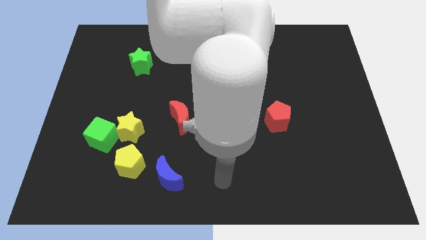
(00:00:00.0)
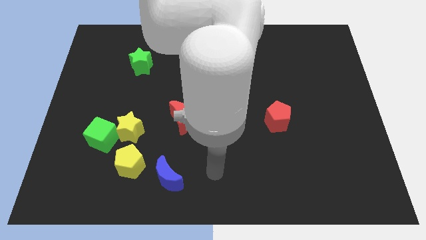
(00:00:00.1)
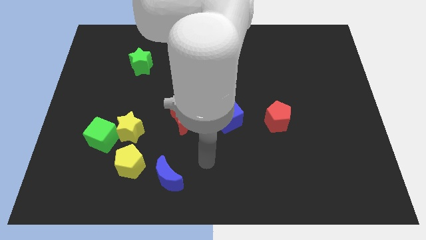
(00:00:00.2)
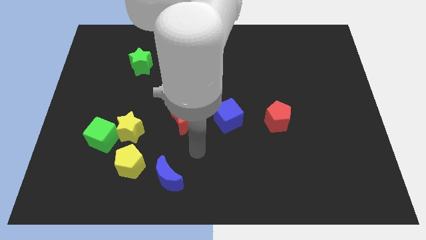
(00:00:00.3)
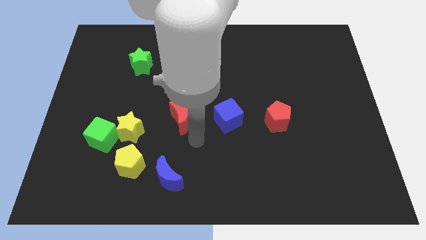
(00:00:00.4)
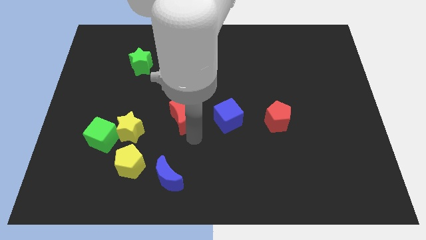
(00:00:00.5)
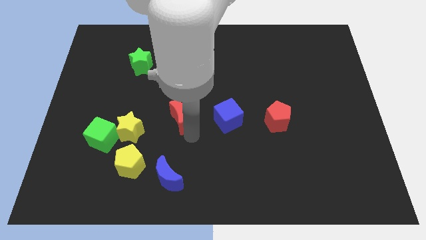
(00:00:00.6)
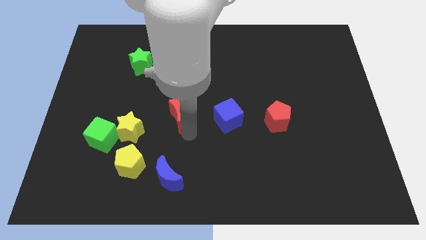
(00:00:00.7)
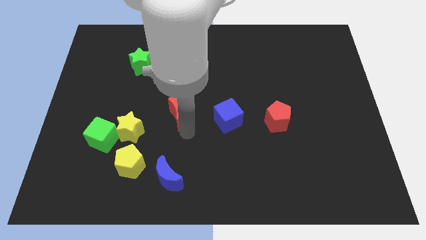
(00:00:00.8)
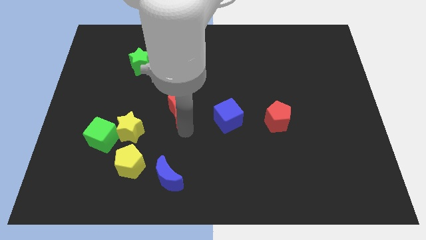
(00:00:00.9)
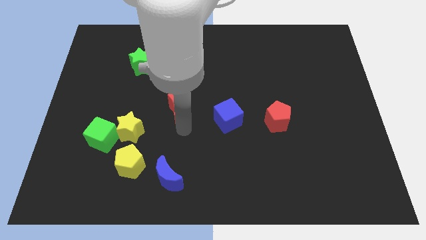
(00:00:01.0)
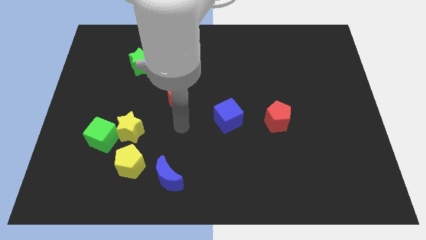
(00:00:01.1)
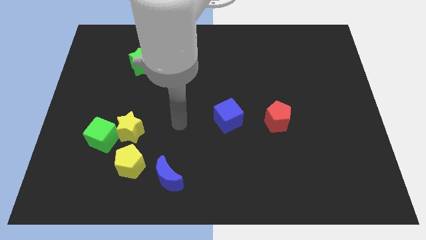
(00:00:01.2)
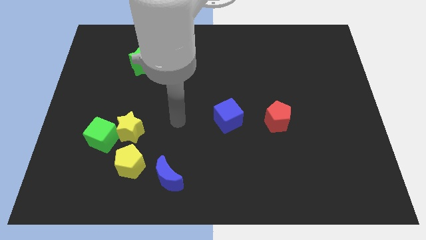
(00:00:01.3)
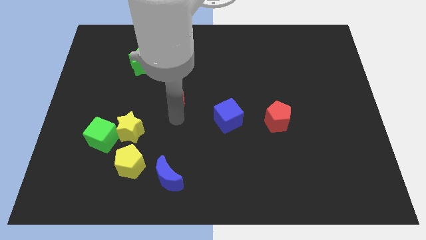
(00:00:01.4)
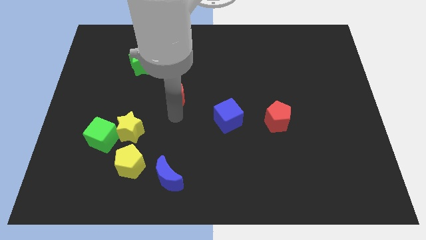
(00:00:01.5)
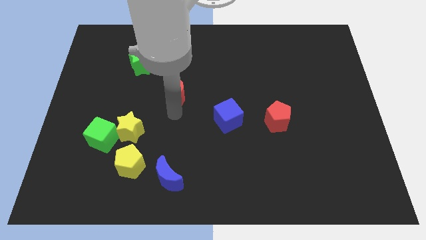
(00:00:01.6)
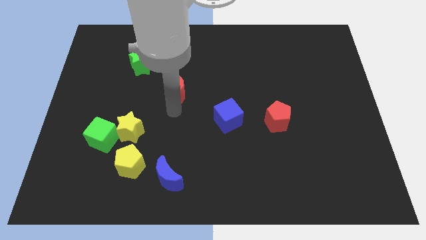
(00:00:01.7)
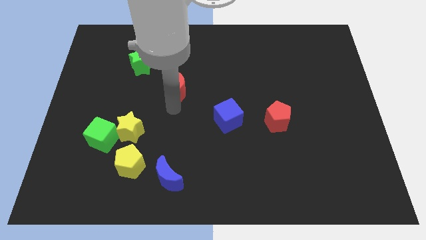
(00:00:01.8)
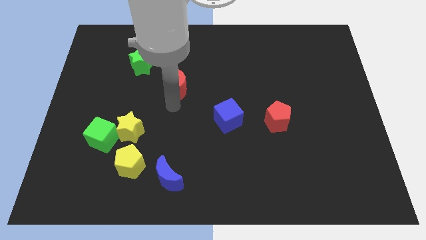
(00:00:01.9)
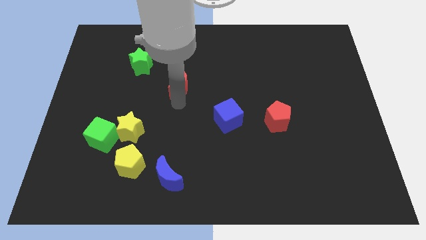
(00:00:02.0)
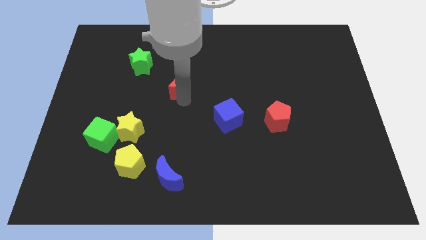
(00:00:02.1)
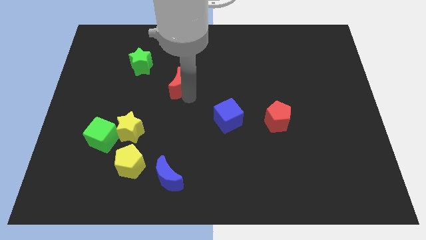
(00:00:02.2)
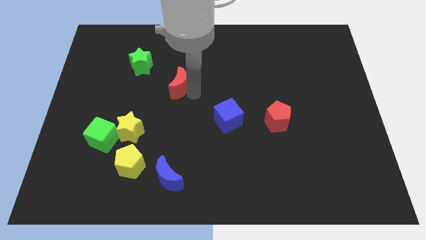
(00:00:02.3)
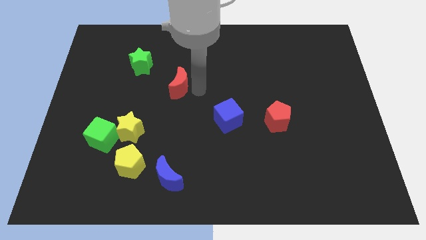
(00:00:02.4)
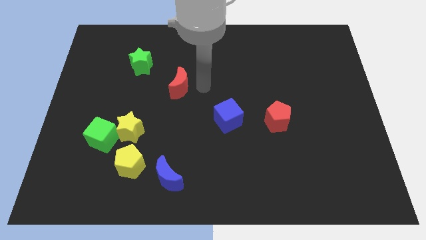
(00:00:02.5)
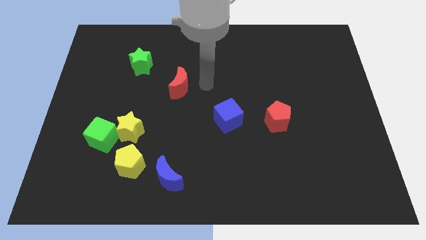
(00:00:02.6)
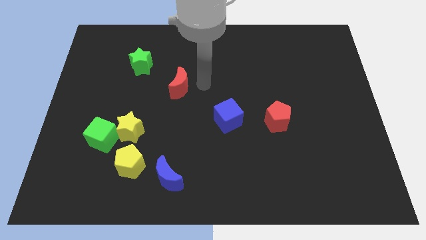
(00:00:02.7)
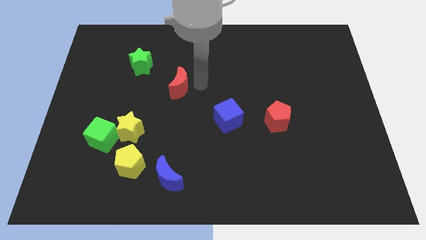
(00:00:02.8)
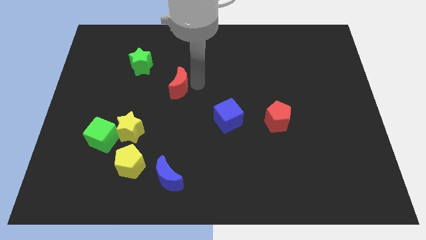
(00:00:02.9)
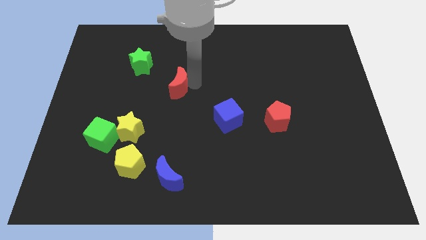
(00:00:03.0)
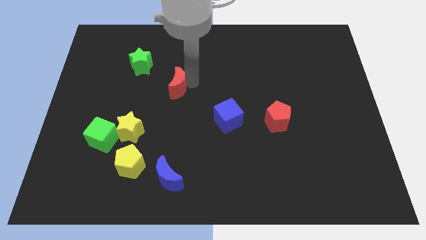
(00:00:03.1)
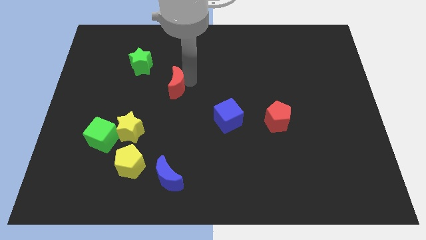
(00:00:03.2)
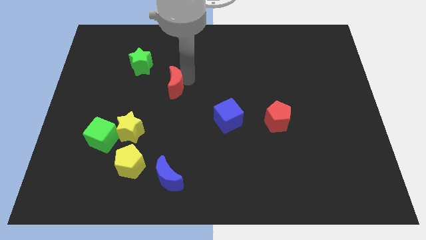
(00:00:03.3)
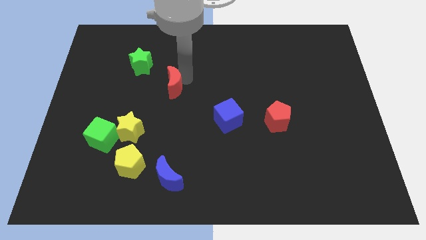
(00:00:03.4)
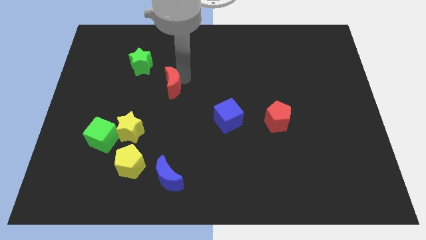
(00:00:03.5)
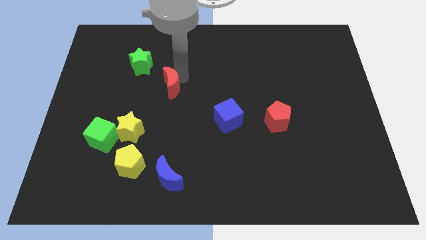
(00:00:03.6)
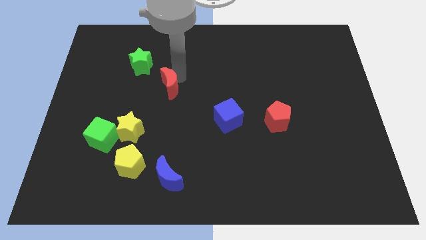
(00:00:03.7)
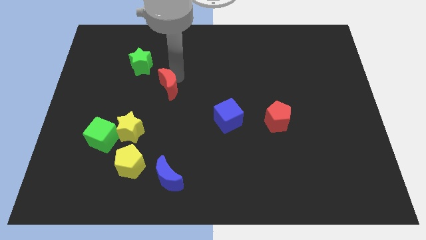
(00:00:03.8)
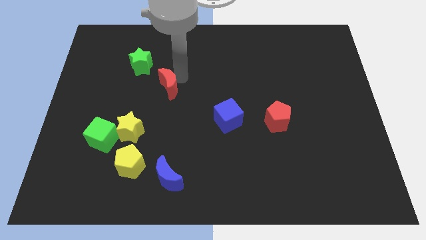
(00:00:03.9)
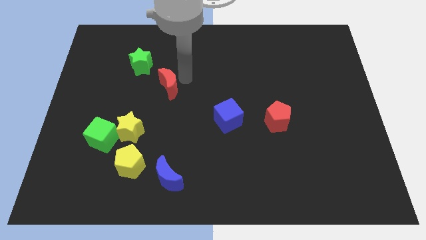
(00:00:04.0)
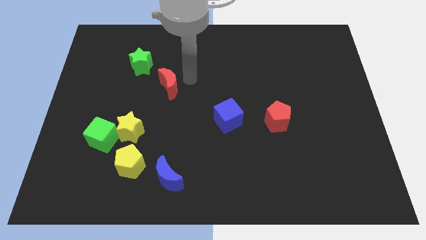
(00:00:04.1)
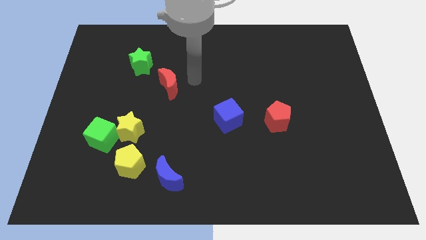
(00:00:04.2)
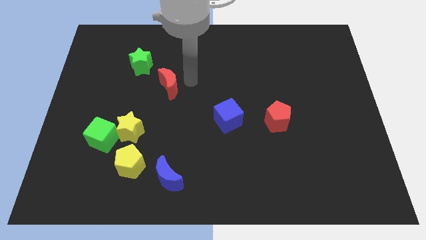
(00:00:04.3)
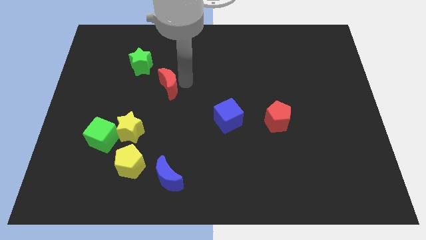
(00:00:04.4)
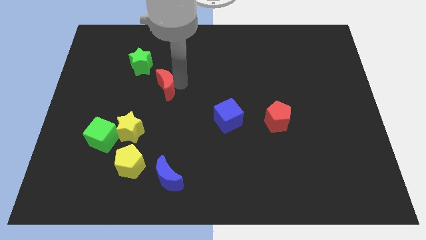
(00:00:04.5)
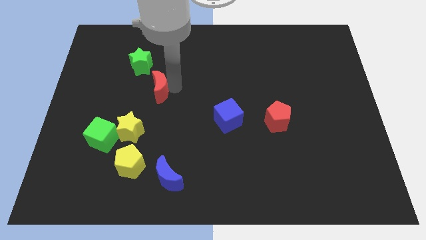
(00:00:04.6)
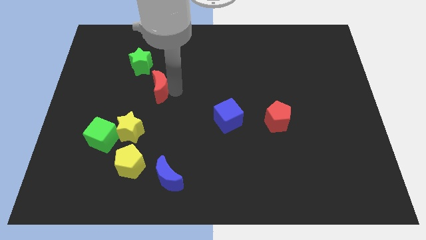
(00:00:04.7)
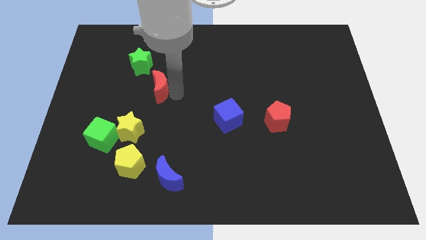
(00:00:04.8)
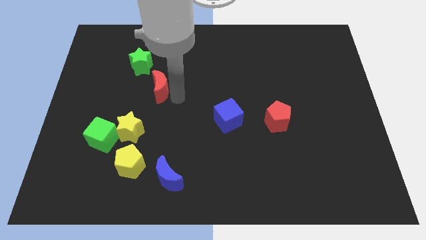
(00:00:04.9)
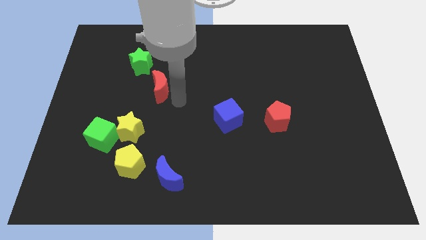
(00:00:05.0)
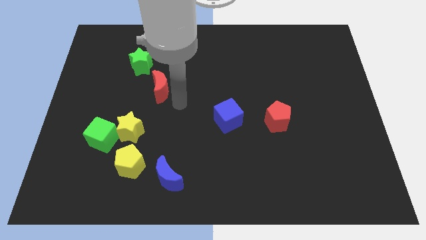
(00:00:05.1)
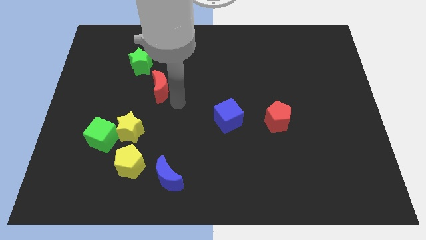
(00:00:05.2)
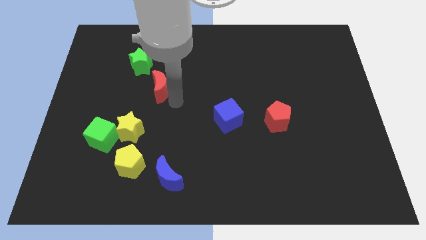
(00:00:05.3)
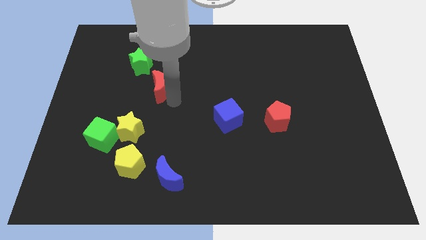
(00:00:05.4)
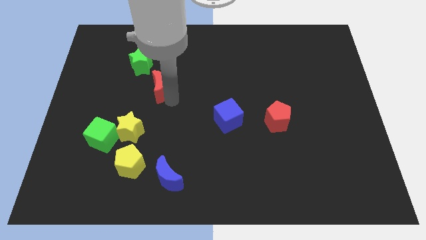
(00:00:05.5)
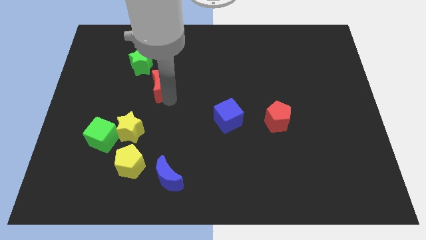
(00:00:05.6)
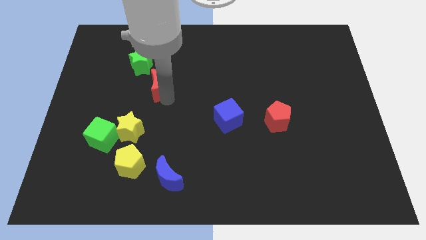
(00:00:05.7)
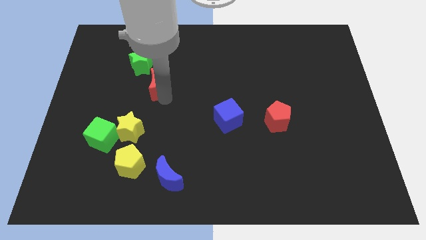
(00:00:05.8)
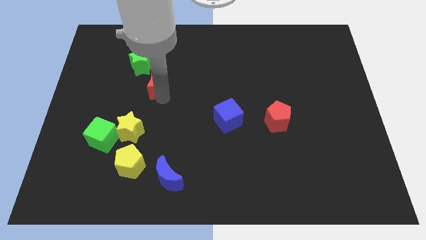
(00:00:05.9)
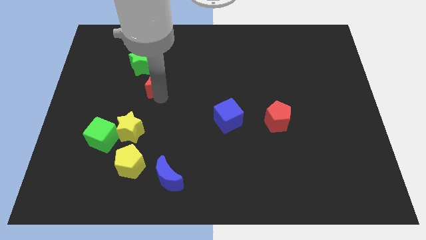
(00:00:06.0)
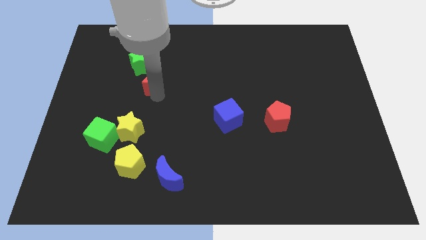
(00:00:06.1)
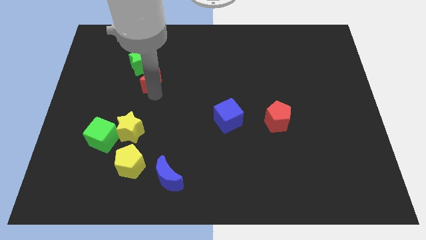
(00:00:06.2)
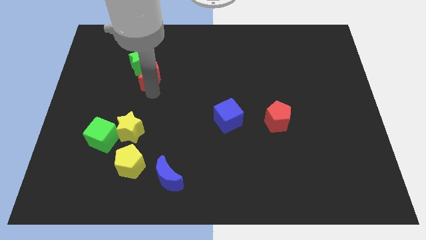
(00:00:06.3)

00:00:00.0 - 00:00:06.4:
slide the red moon next to the green star
